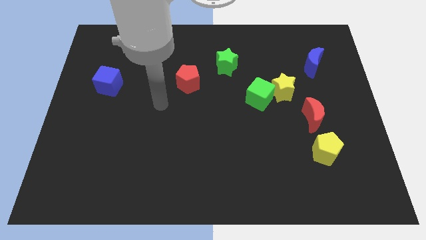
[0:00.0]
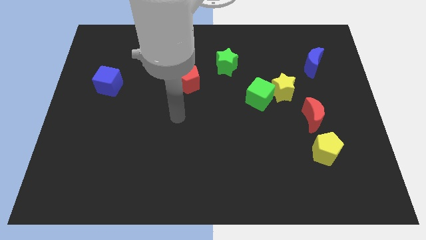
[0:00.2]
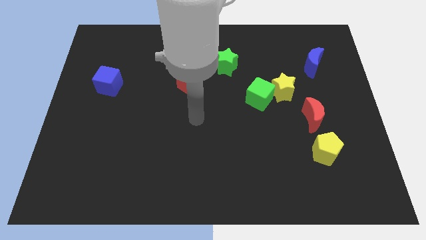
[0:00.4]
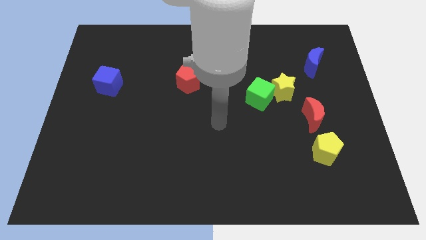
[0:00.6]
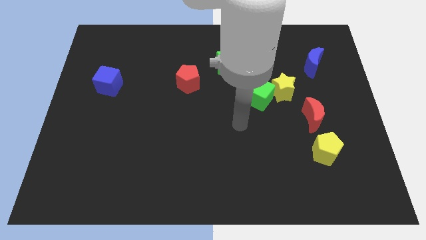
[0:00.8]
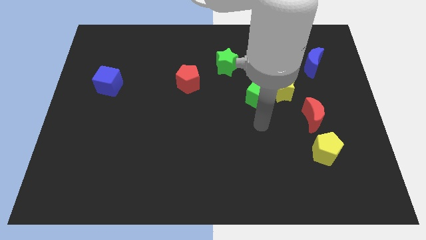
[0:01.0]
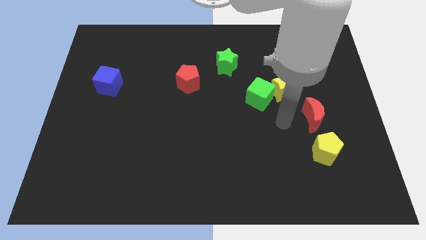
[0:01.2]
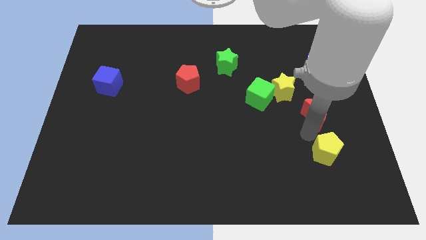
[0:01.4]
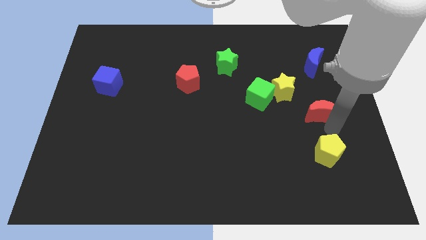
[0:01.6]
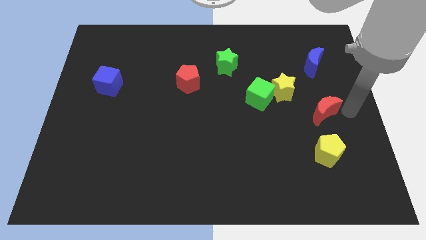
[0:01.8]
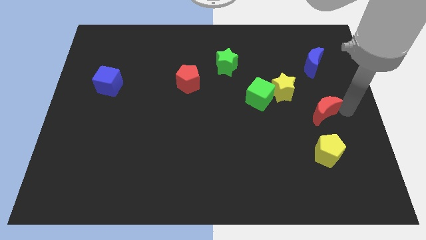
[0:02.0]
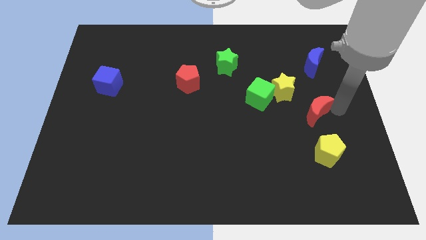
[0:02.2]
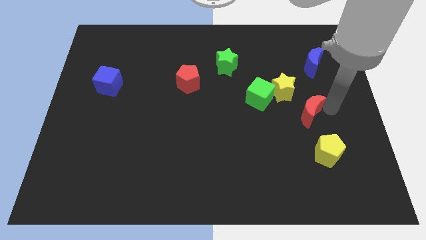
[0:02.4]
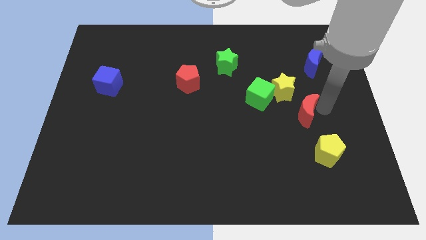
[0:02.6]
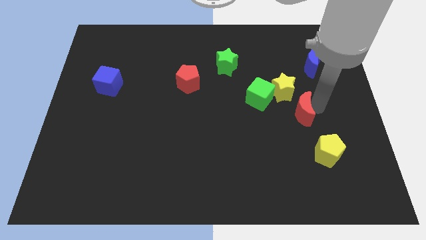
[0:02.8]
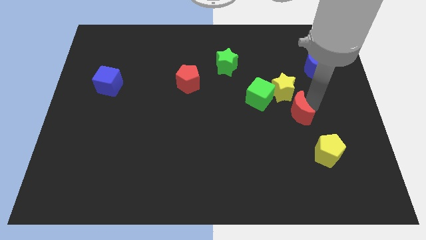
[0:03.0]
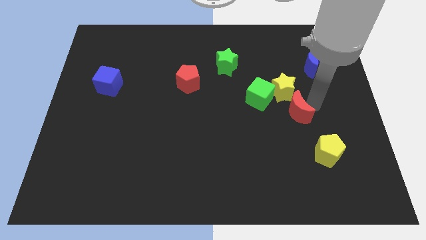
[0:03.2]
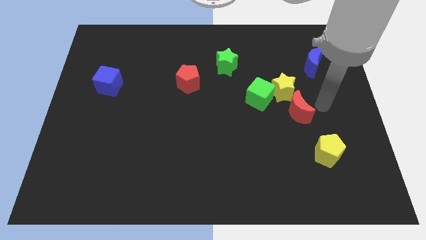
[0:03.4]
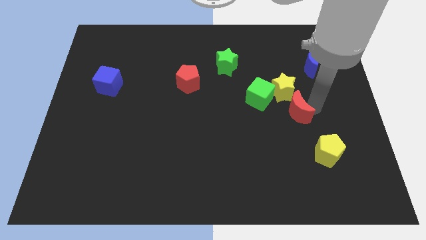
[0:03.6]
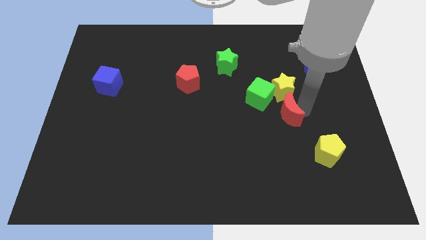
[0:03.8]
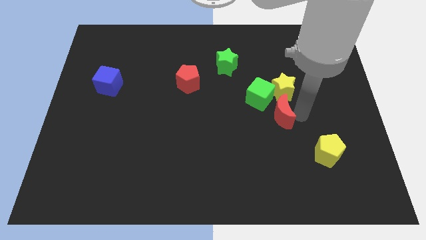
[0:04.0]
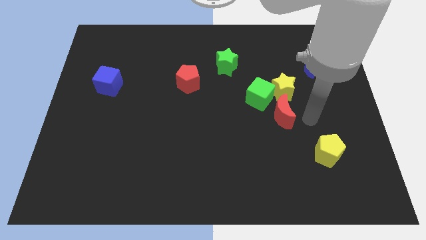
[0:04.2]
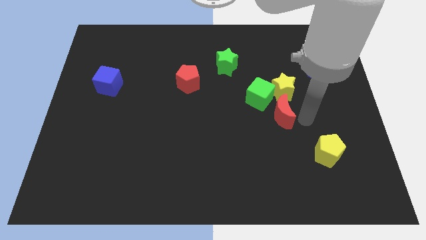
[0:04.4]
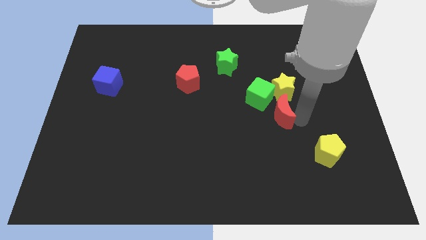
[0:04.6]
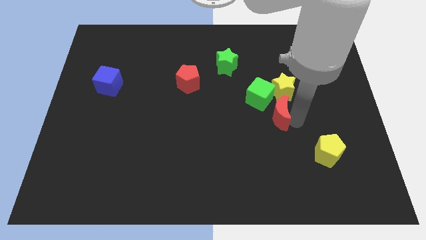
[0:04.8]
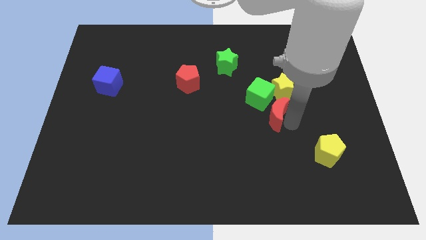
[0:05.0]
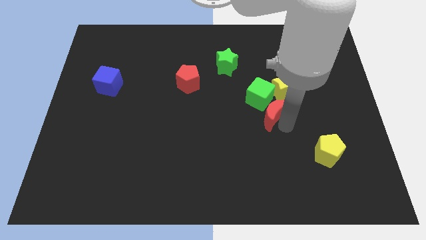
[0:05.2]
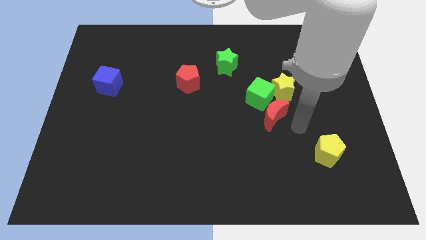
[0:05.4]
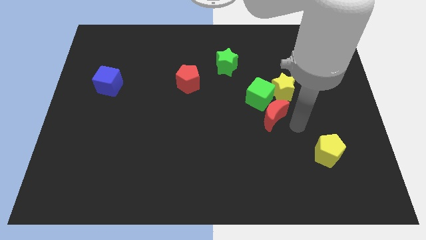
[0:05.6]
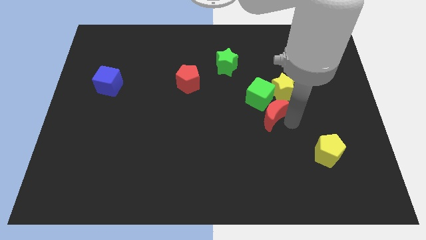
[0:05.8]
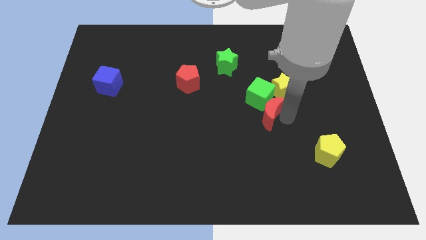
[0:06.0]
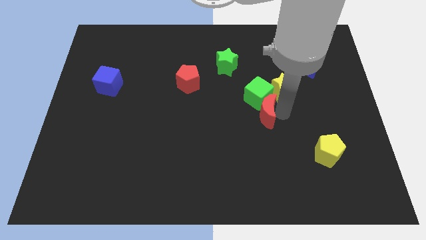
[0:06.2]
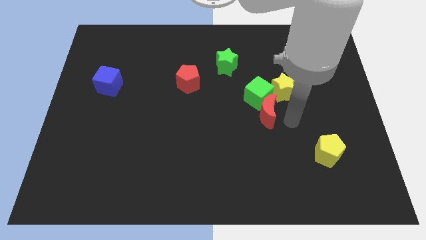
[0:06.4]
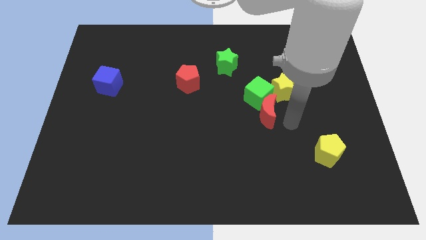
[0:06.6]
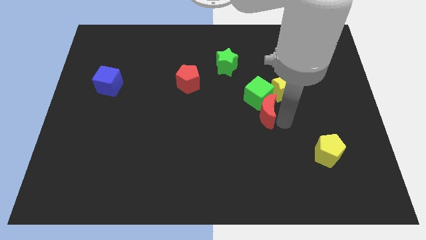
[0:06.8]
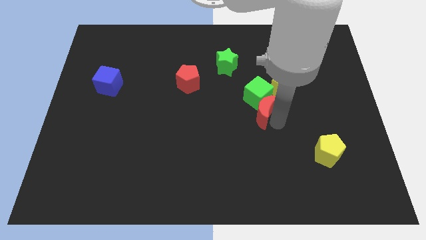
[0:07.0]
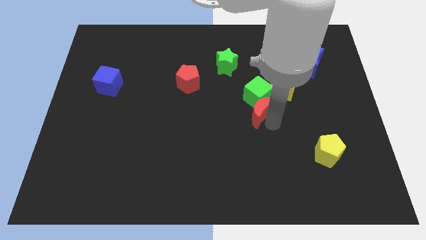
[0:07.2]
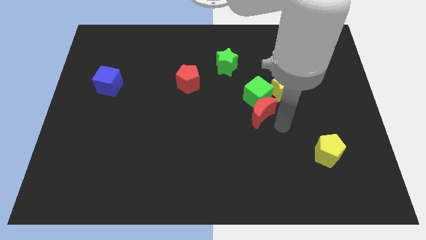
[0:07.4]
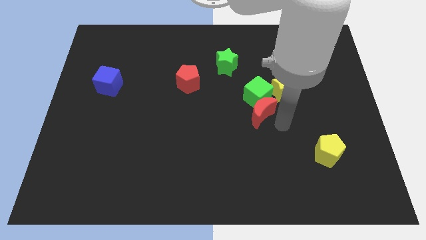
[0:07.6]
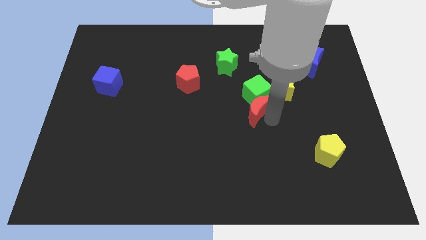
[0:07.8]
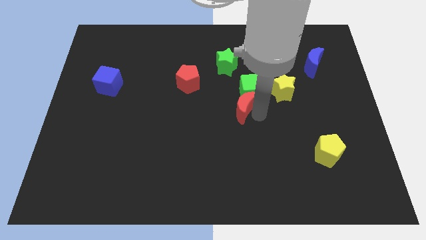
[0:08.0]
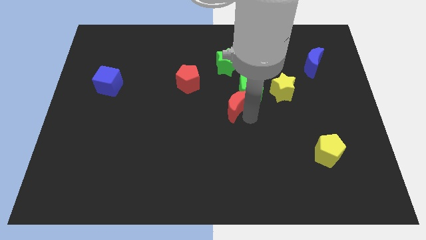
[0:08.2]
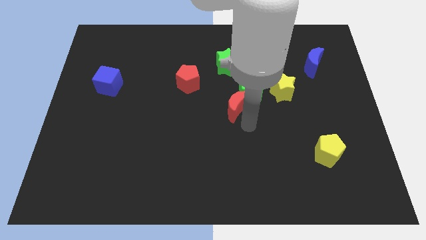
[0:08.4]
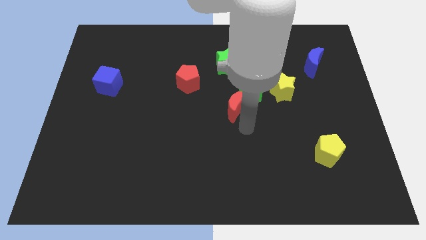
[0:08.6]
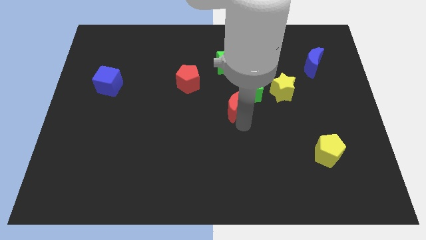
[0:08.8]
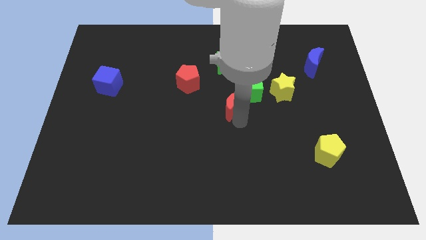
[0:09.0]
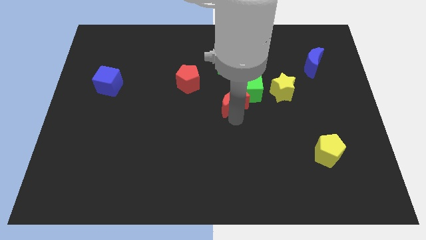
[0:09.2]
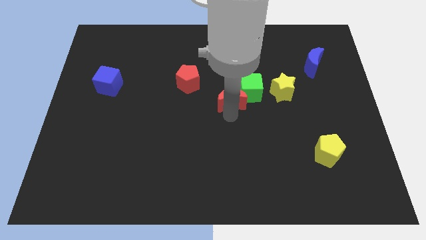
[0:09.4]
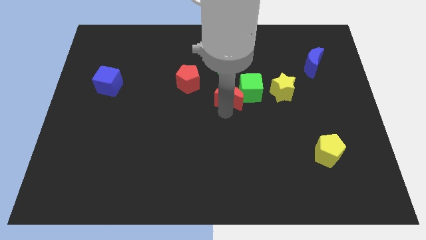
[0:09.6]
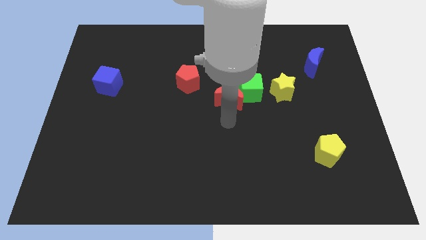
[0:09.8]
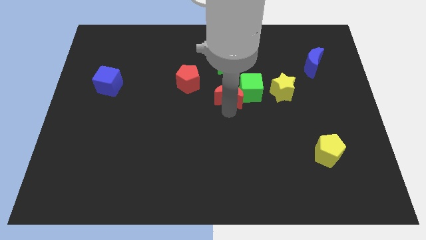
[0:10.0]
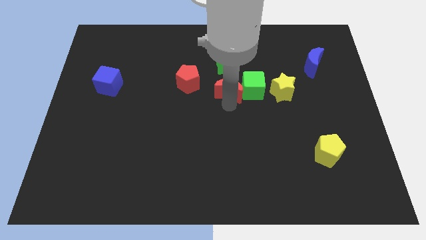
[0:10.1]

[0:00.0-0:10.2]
put the red moon just right of the red pentagon

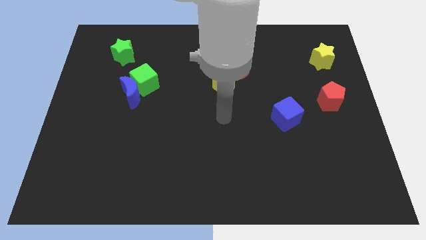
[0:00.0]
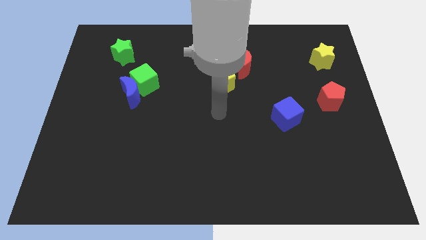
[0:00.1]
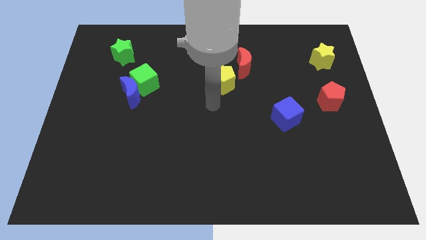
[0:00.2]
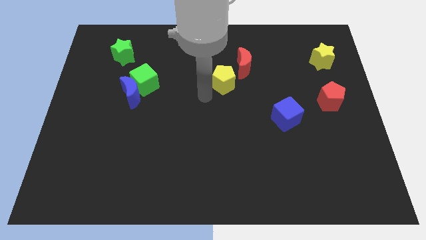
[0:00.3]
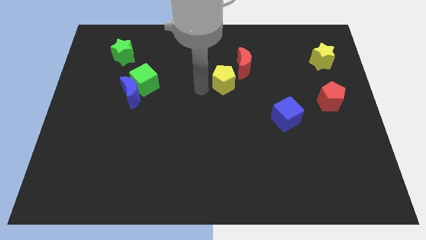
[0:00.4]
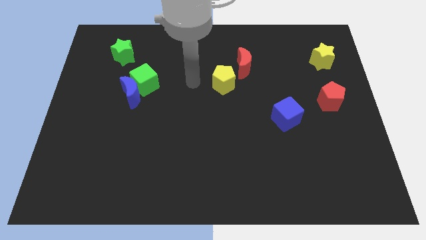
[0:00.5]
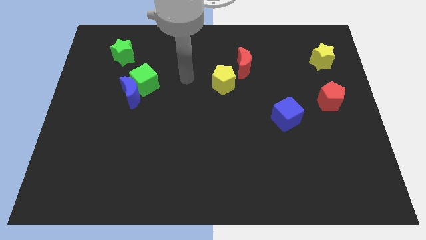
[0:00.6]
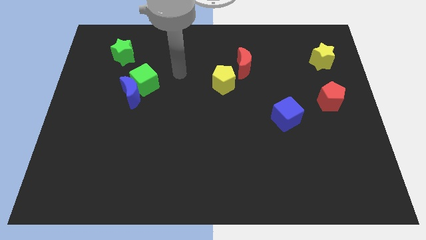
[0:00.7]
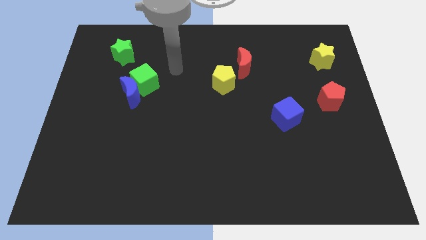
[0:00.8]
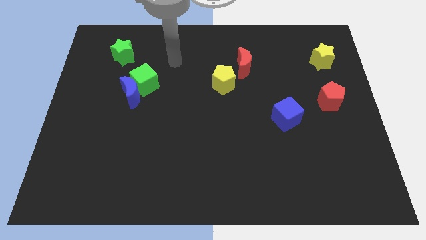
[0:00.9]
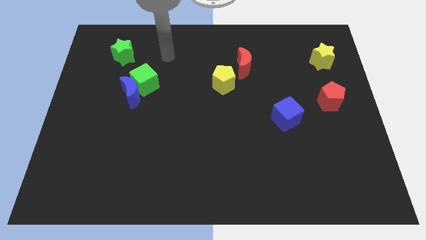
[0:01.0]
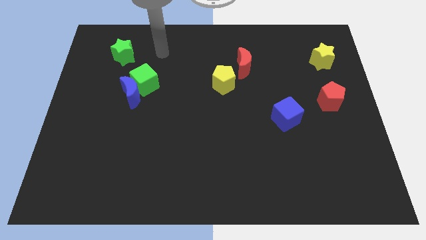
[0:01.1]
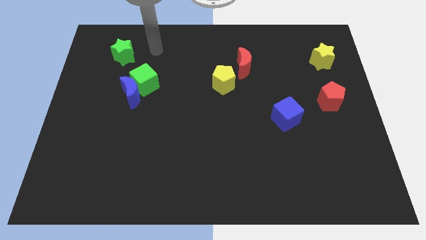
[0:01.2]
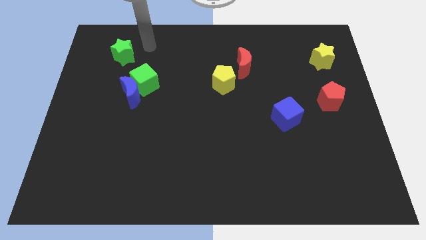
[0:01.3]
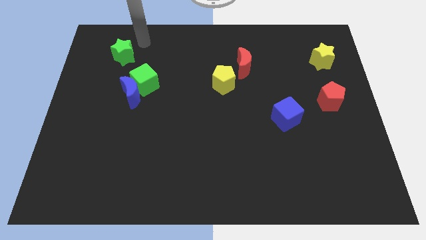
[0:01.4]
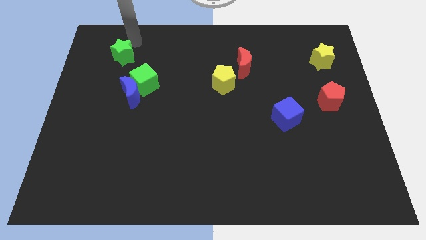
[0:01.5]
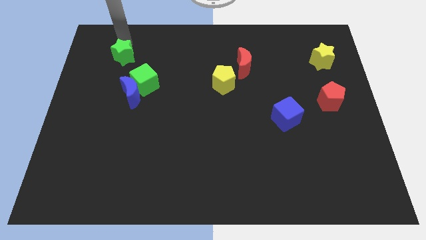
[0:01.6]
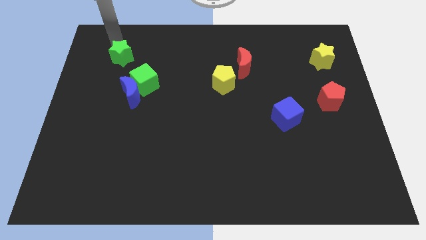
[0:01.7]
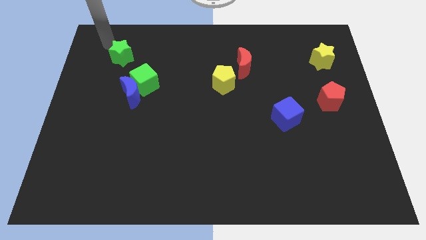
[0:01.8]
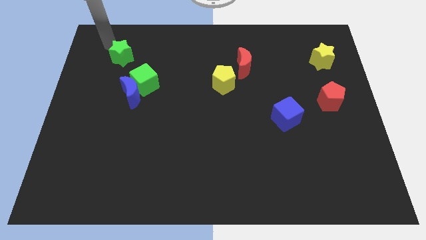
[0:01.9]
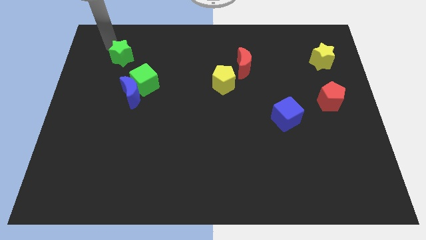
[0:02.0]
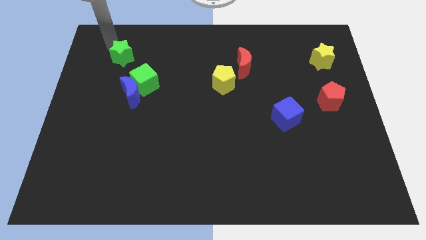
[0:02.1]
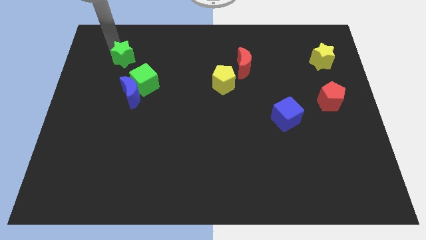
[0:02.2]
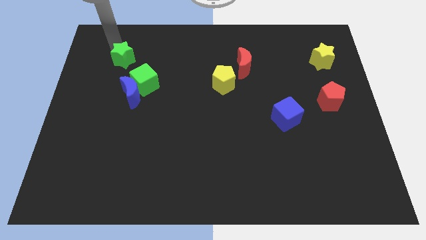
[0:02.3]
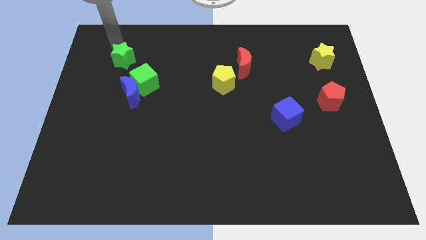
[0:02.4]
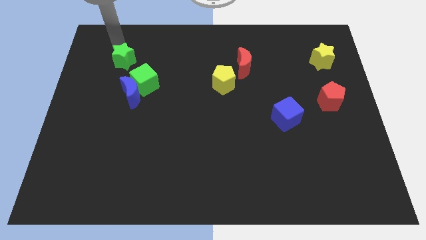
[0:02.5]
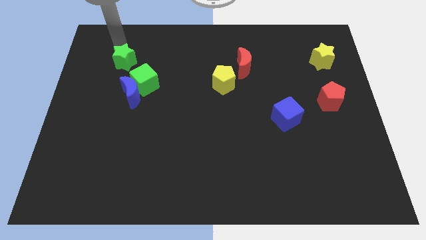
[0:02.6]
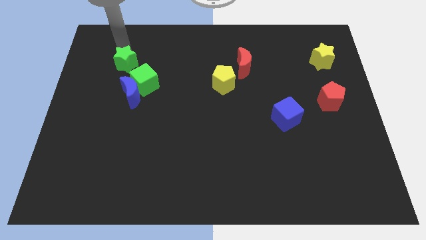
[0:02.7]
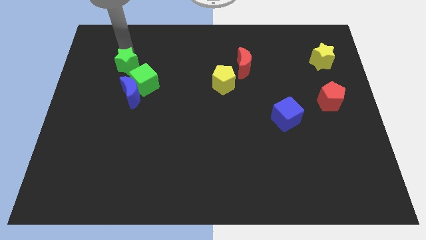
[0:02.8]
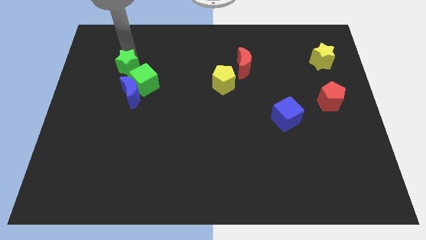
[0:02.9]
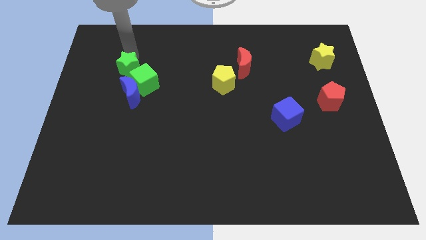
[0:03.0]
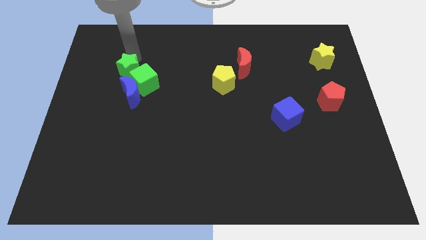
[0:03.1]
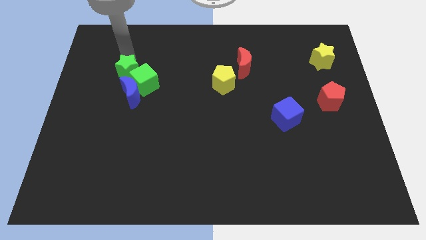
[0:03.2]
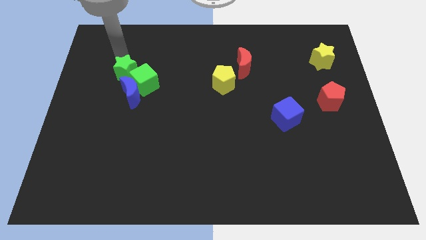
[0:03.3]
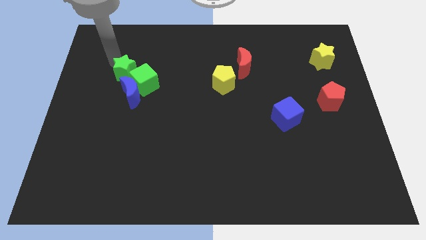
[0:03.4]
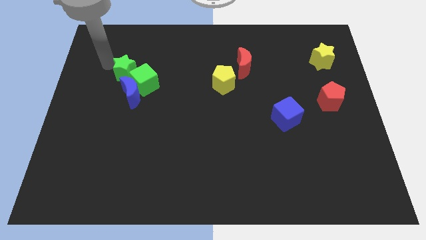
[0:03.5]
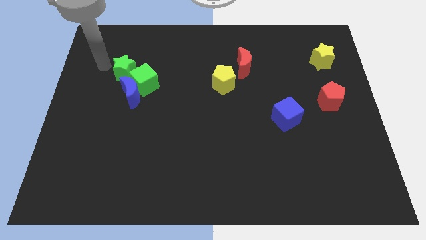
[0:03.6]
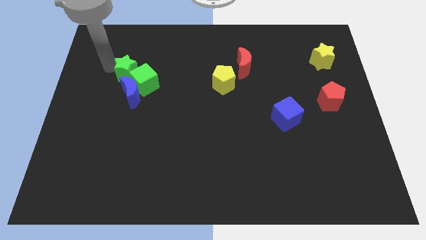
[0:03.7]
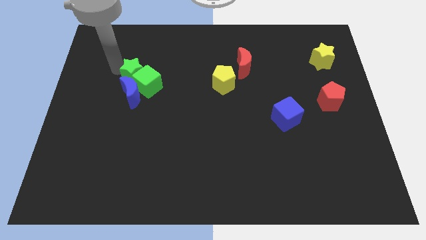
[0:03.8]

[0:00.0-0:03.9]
move the green star to the top right side of the blue moon
